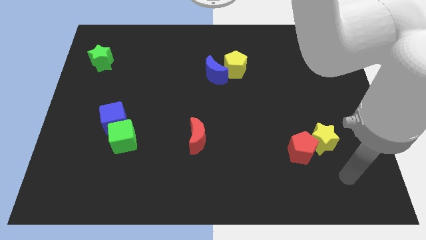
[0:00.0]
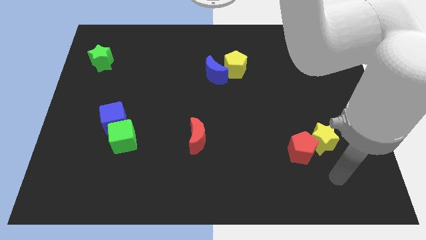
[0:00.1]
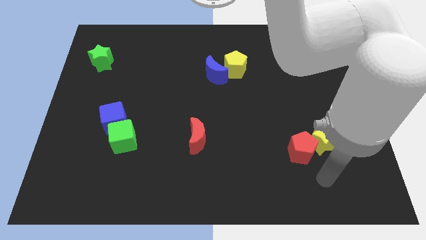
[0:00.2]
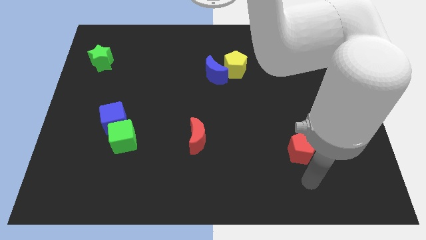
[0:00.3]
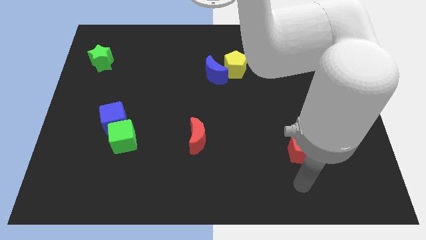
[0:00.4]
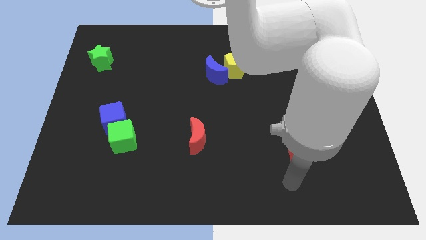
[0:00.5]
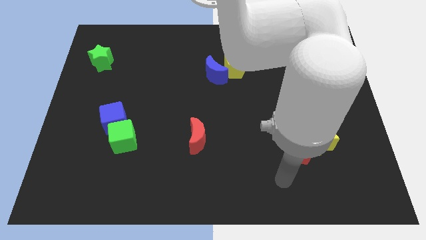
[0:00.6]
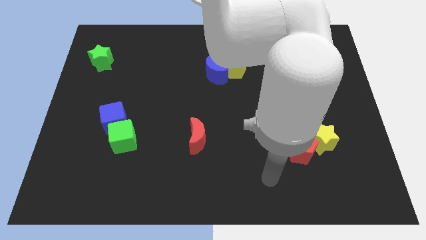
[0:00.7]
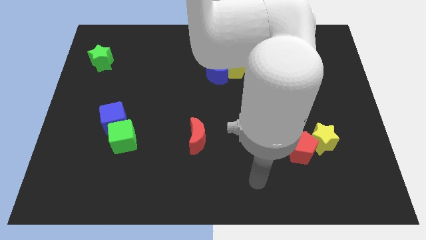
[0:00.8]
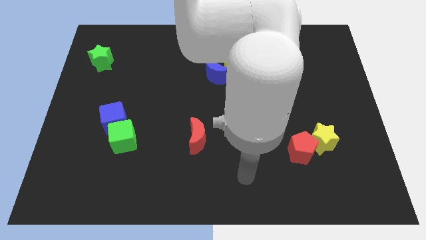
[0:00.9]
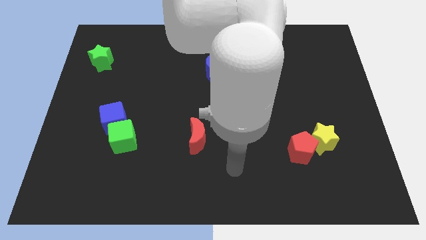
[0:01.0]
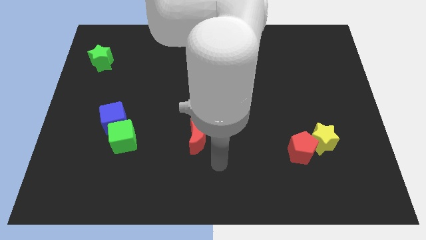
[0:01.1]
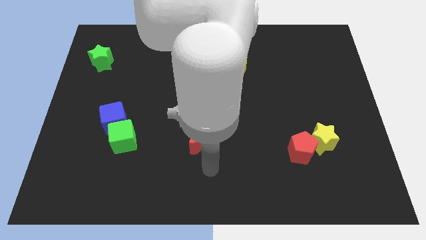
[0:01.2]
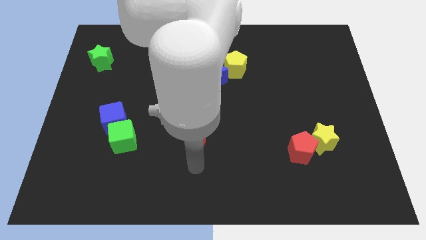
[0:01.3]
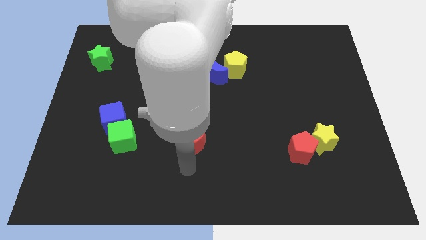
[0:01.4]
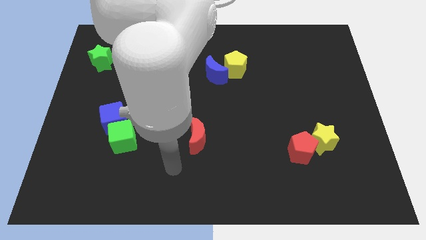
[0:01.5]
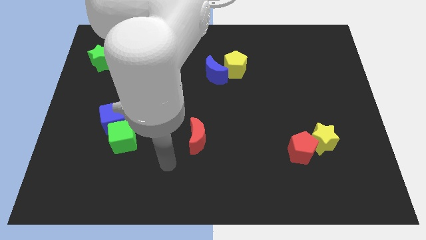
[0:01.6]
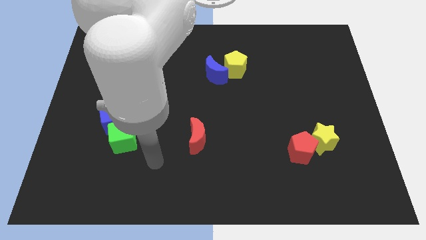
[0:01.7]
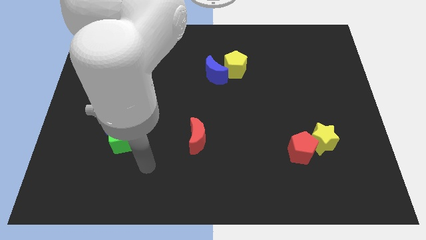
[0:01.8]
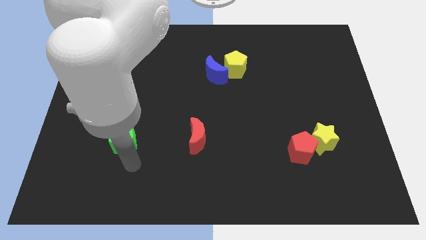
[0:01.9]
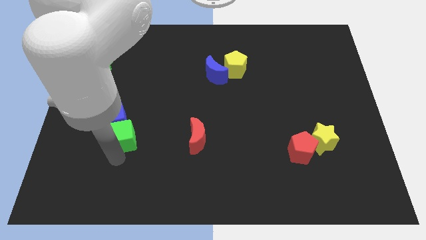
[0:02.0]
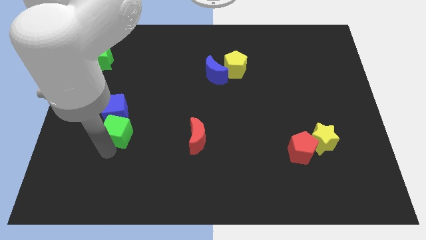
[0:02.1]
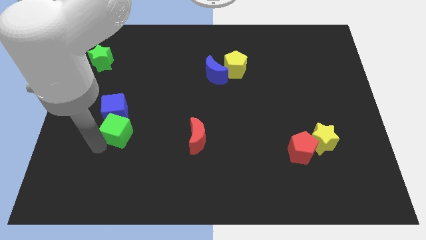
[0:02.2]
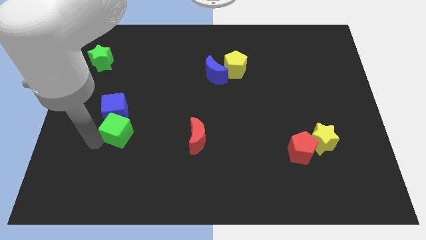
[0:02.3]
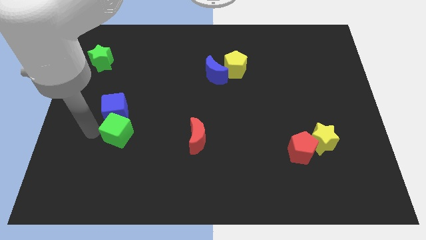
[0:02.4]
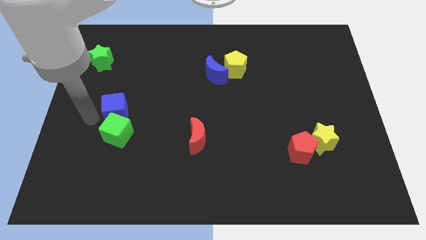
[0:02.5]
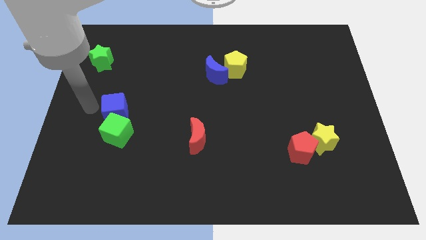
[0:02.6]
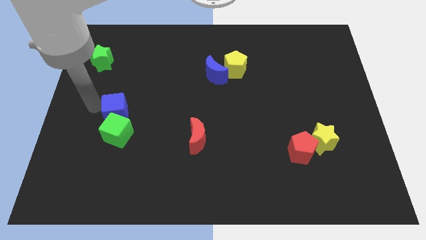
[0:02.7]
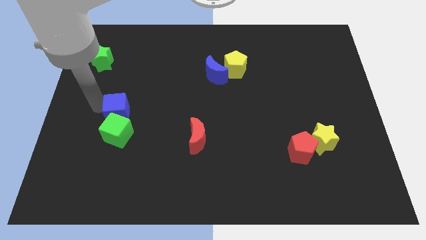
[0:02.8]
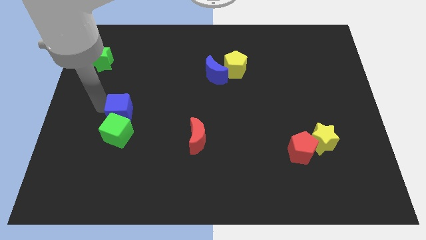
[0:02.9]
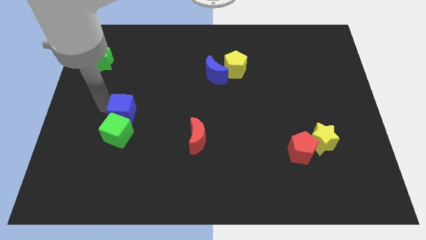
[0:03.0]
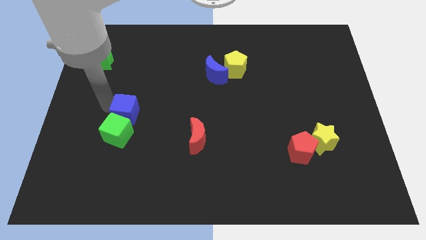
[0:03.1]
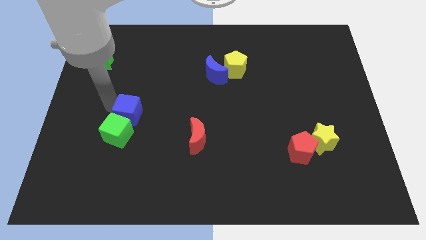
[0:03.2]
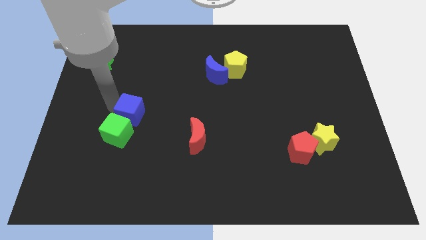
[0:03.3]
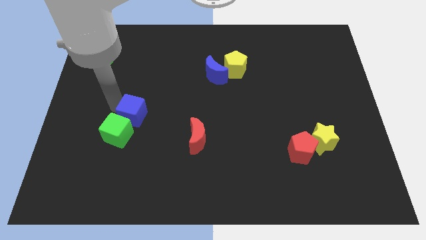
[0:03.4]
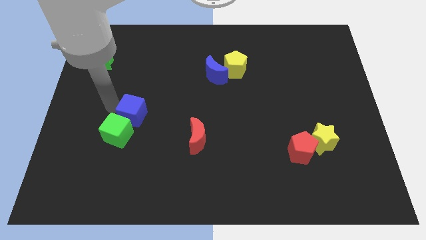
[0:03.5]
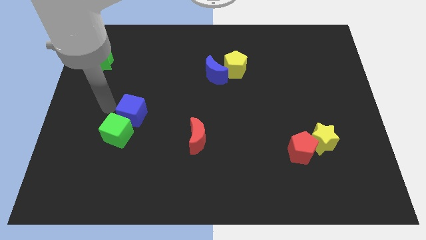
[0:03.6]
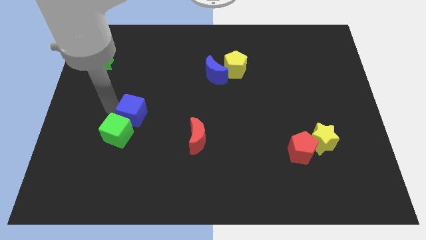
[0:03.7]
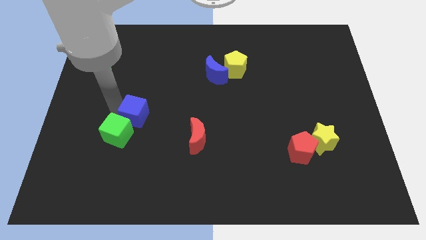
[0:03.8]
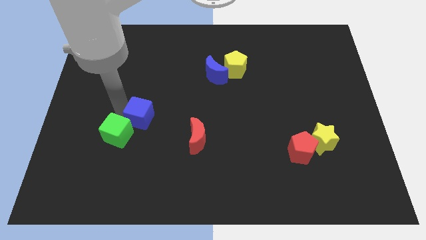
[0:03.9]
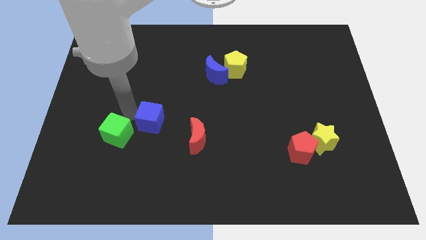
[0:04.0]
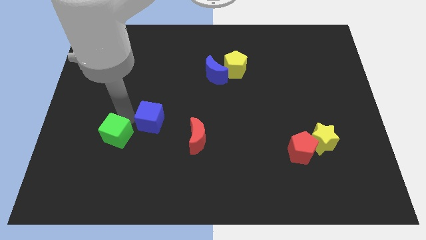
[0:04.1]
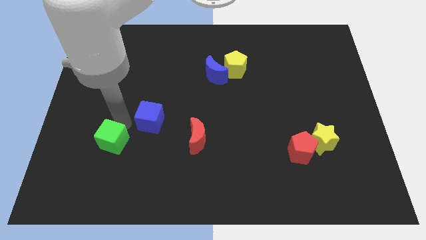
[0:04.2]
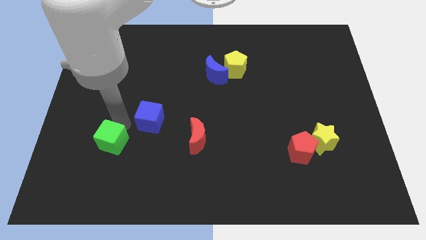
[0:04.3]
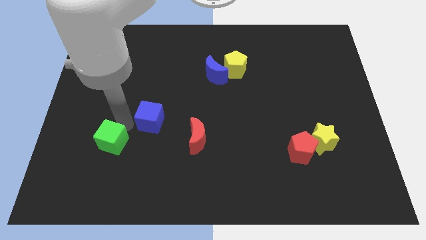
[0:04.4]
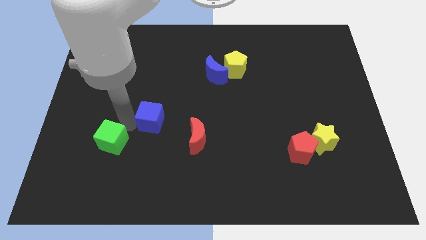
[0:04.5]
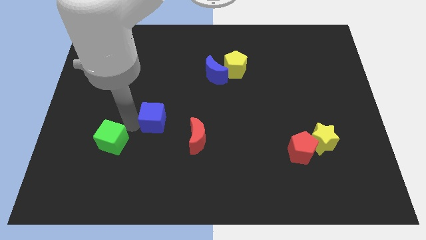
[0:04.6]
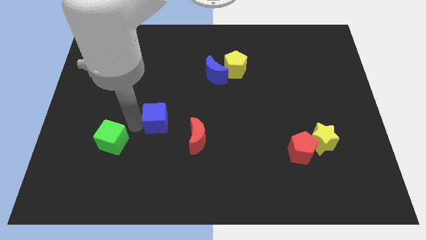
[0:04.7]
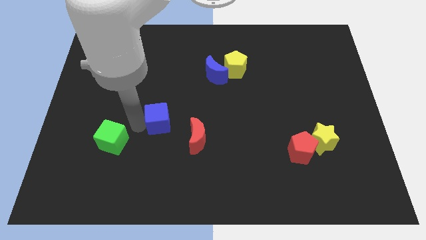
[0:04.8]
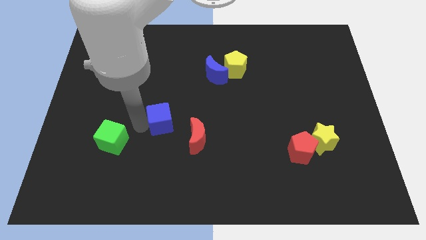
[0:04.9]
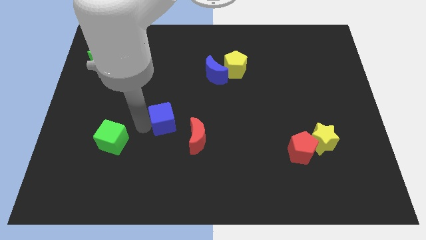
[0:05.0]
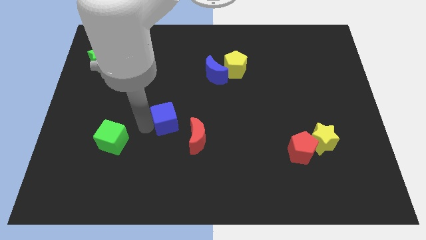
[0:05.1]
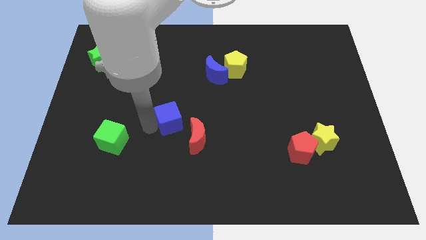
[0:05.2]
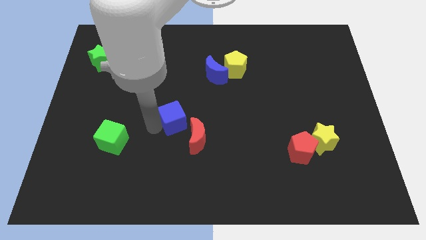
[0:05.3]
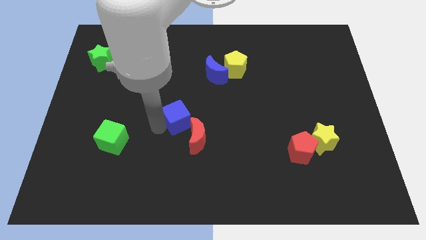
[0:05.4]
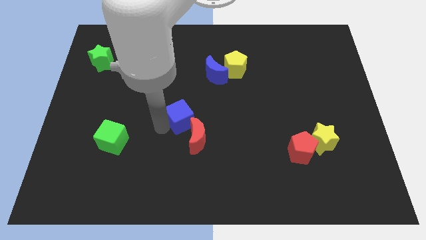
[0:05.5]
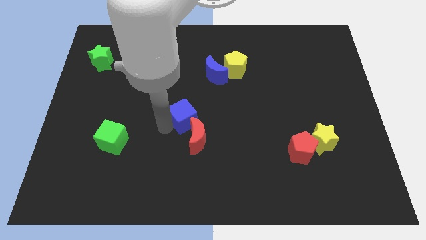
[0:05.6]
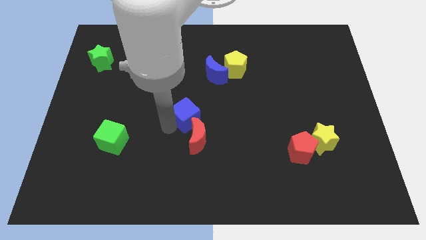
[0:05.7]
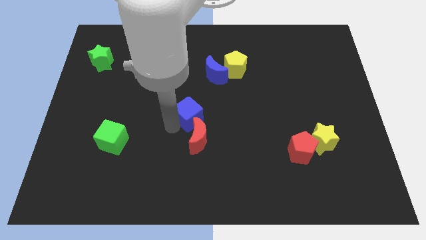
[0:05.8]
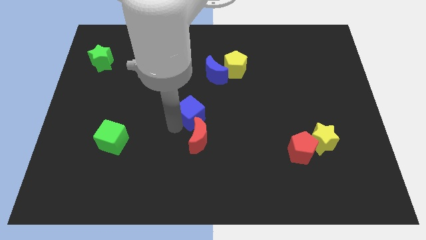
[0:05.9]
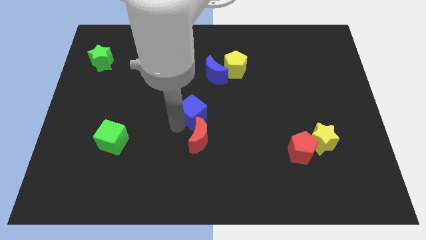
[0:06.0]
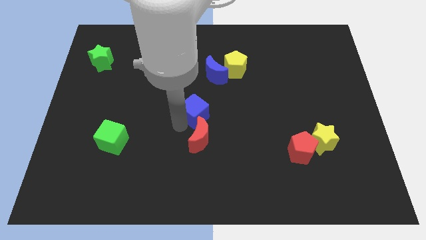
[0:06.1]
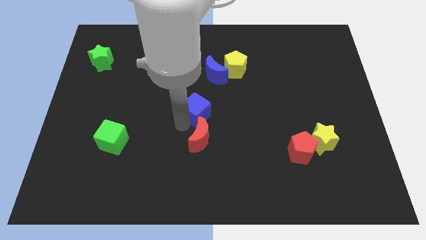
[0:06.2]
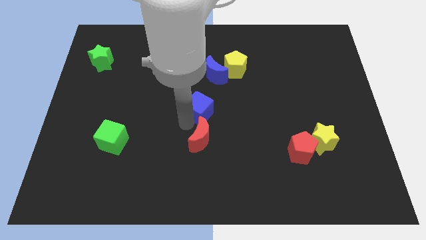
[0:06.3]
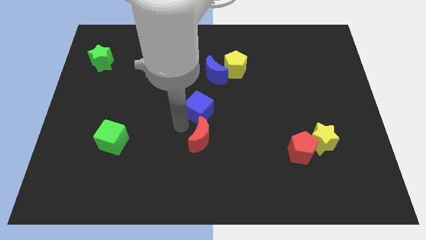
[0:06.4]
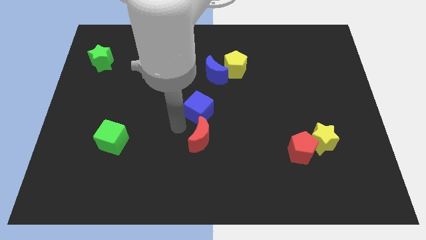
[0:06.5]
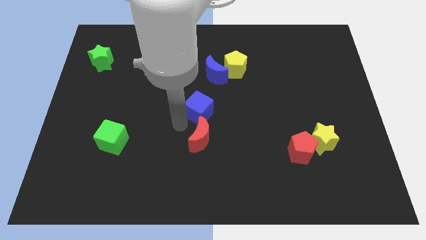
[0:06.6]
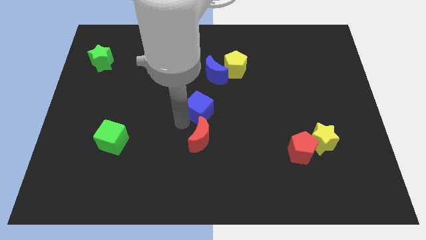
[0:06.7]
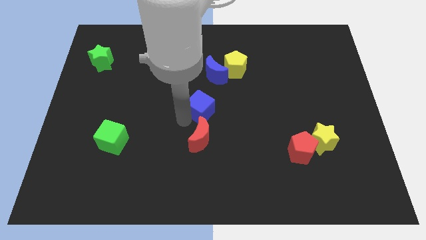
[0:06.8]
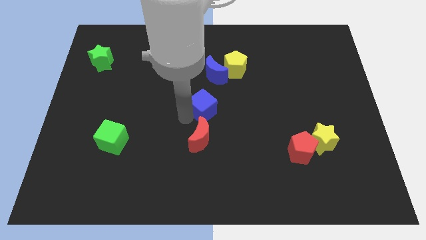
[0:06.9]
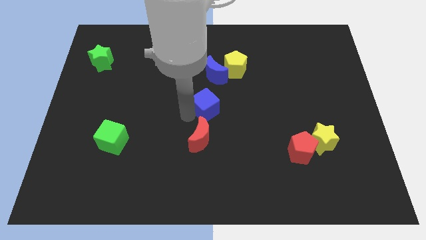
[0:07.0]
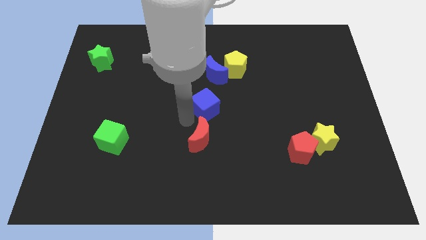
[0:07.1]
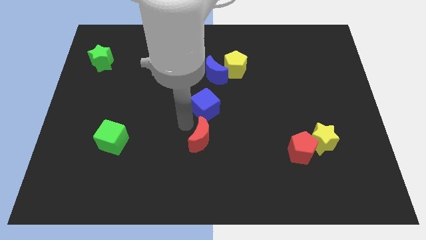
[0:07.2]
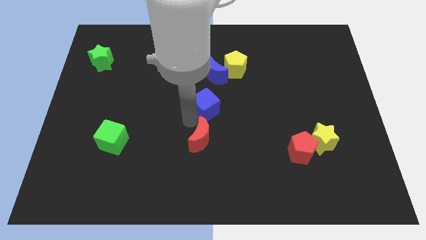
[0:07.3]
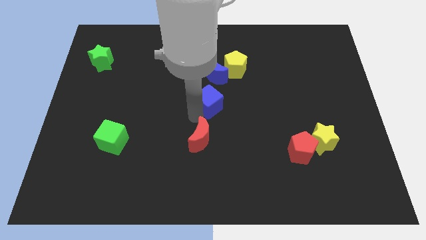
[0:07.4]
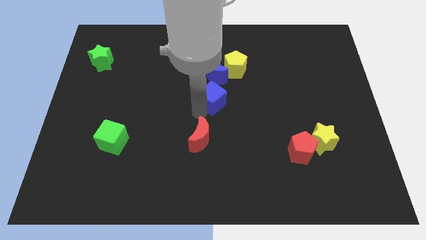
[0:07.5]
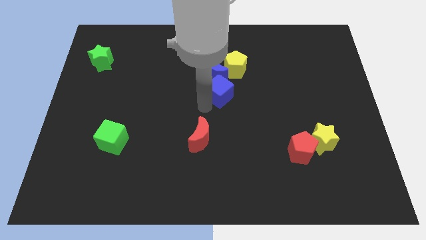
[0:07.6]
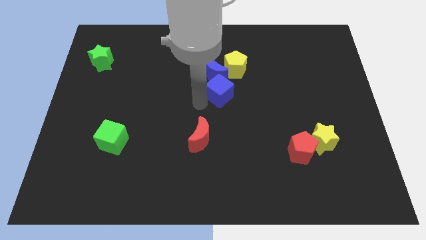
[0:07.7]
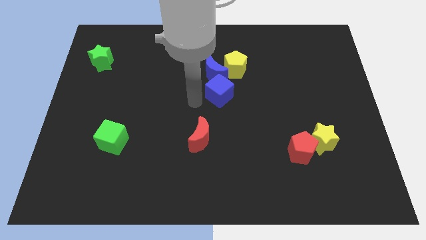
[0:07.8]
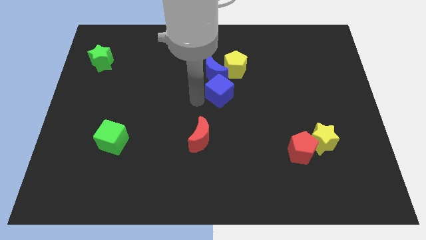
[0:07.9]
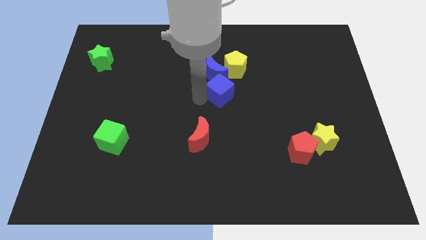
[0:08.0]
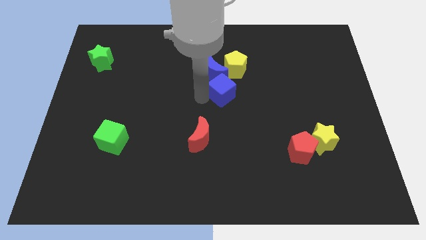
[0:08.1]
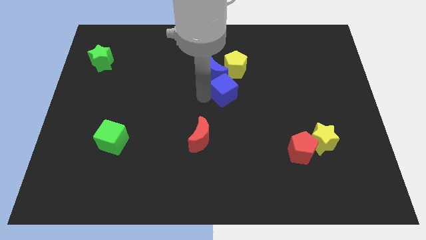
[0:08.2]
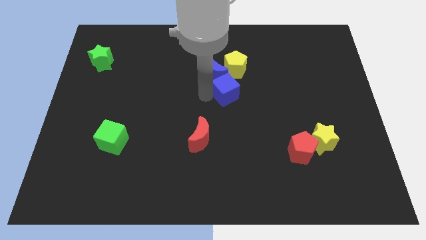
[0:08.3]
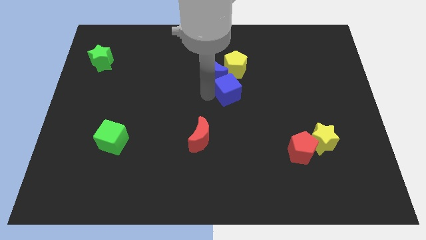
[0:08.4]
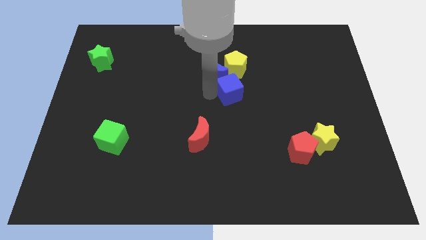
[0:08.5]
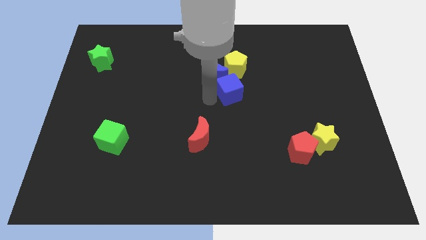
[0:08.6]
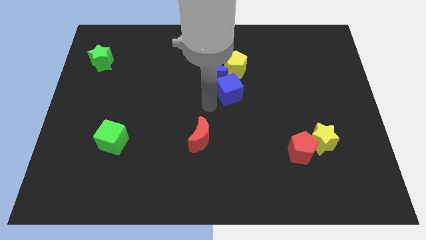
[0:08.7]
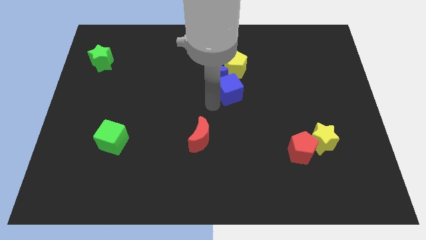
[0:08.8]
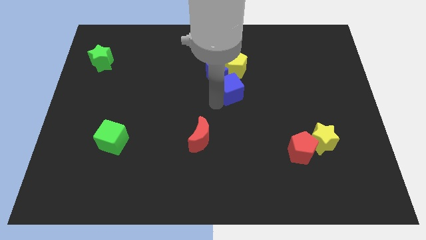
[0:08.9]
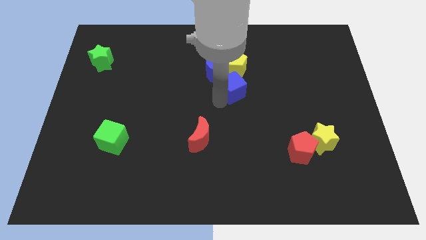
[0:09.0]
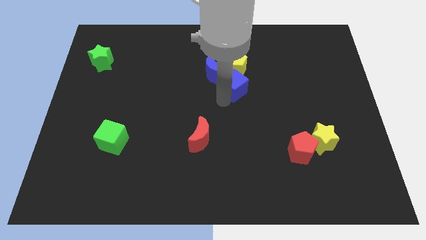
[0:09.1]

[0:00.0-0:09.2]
slide the blue cube to the right side of the blue moon
